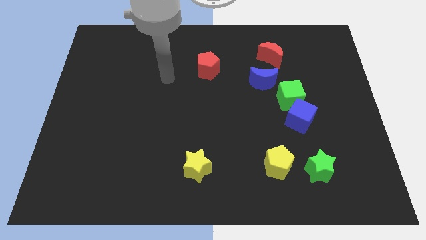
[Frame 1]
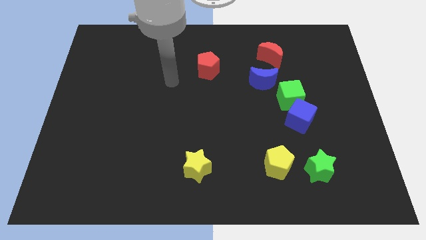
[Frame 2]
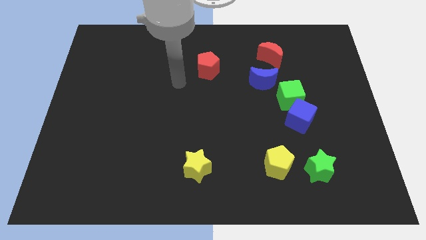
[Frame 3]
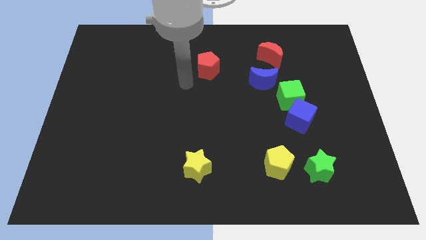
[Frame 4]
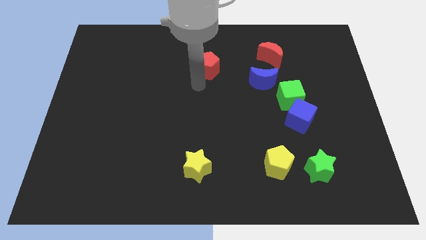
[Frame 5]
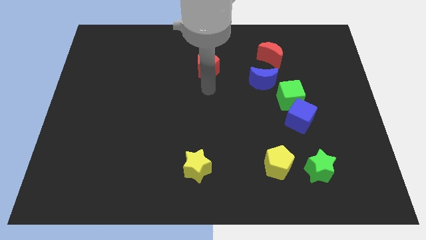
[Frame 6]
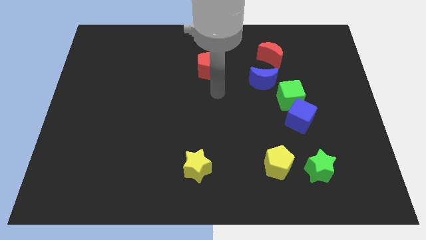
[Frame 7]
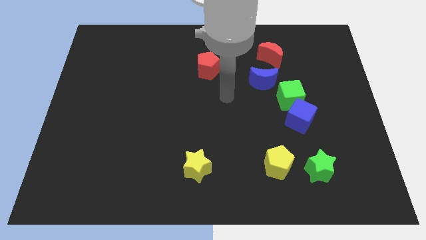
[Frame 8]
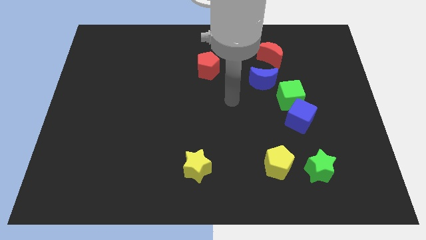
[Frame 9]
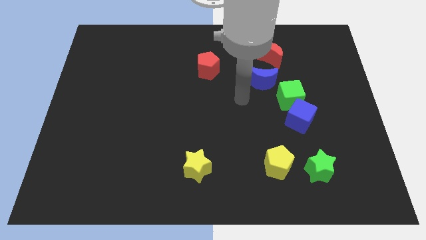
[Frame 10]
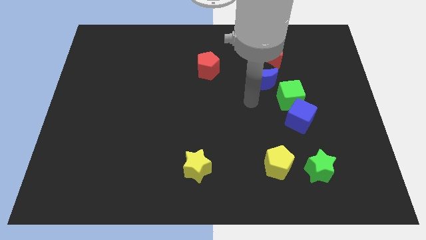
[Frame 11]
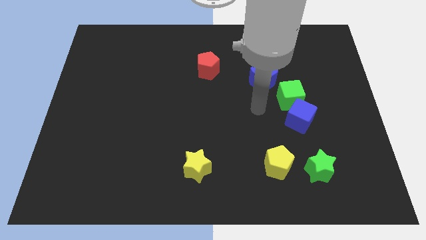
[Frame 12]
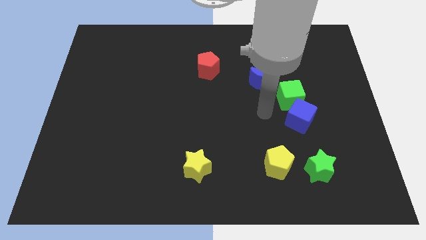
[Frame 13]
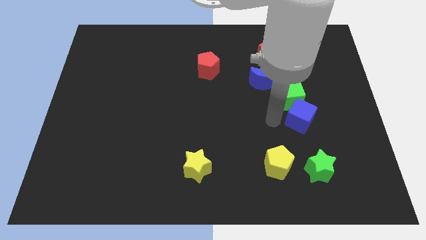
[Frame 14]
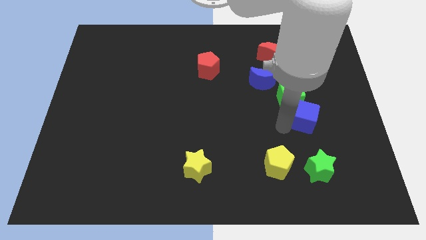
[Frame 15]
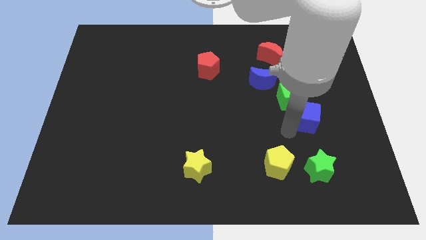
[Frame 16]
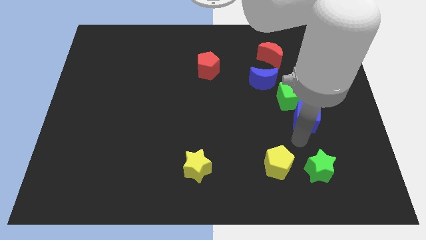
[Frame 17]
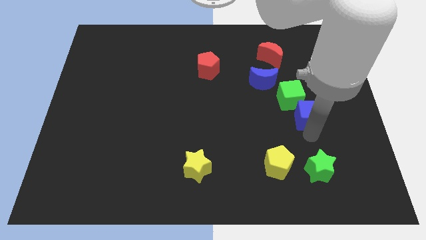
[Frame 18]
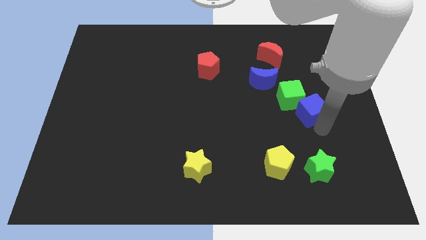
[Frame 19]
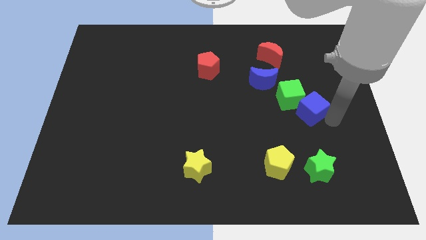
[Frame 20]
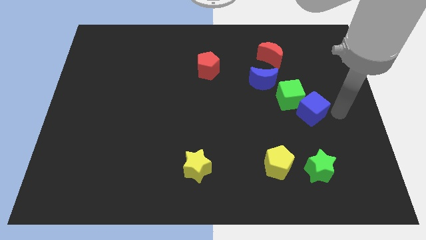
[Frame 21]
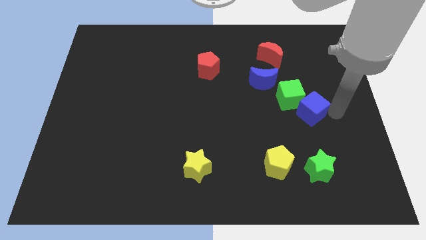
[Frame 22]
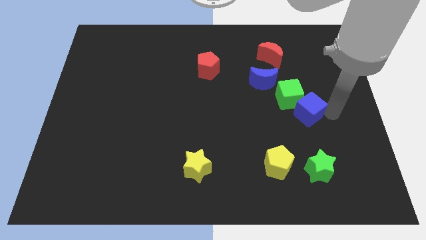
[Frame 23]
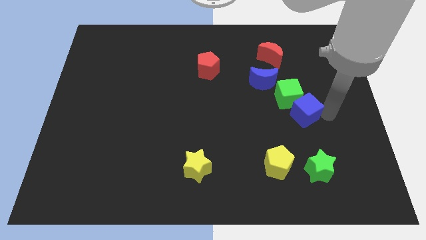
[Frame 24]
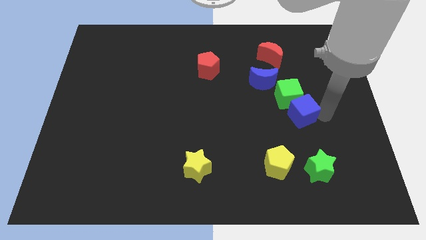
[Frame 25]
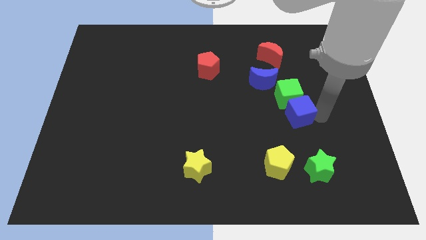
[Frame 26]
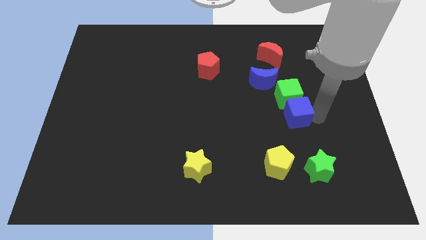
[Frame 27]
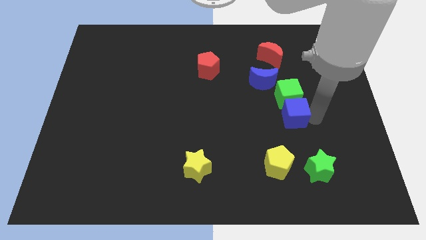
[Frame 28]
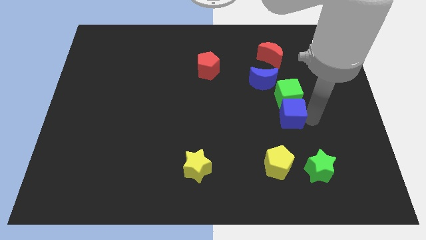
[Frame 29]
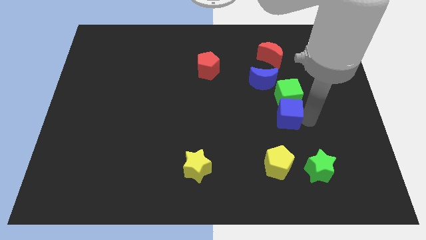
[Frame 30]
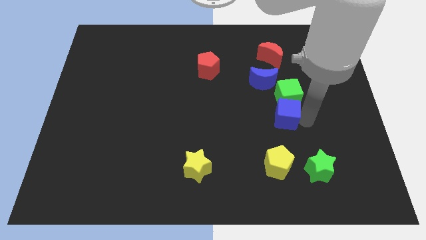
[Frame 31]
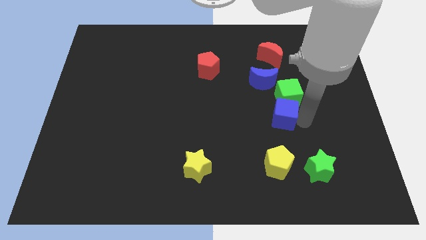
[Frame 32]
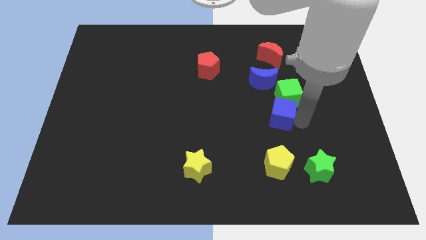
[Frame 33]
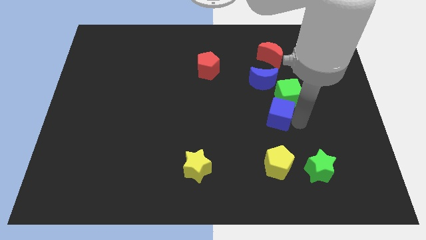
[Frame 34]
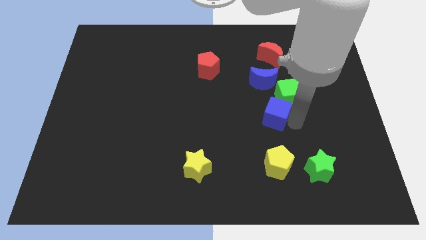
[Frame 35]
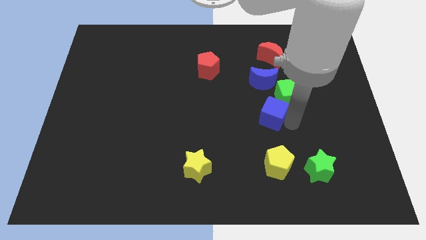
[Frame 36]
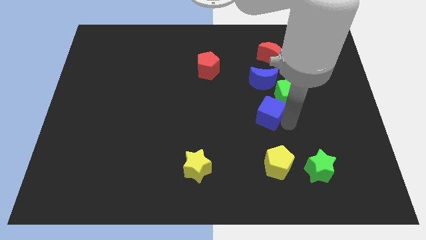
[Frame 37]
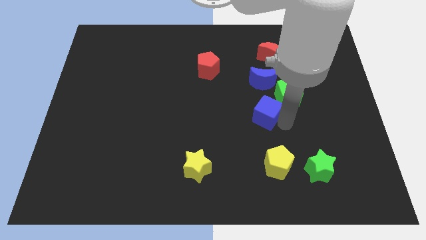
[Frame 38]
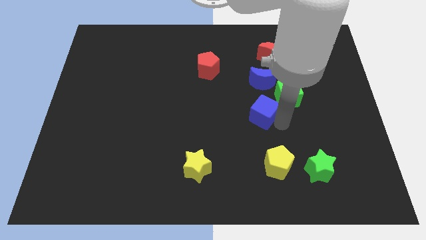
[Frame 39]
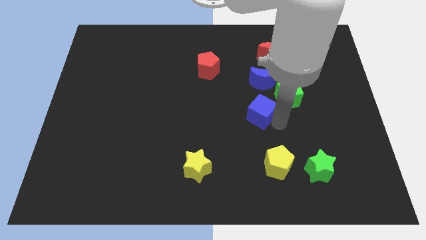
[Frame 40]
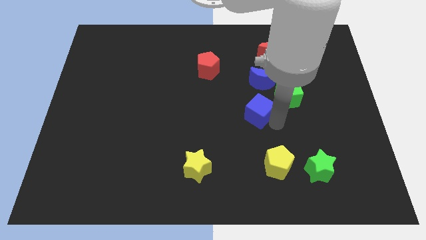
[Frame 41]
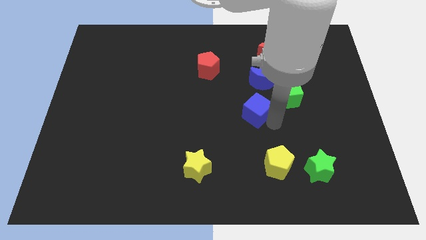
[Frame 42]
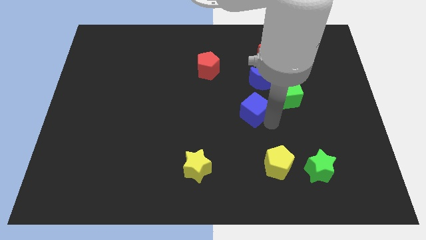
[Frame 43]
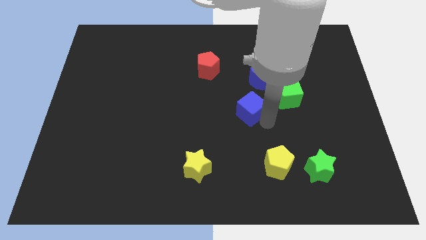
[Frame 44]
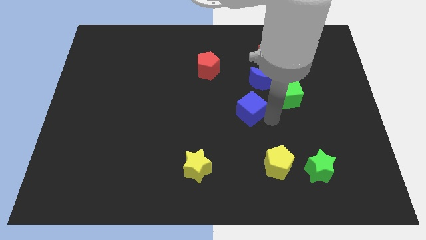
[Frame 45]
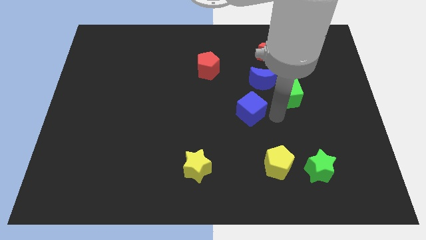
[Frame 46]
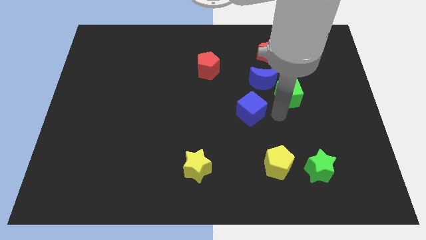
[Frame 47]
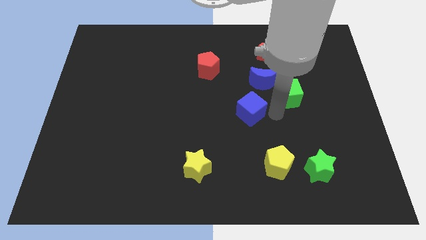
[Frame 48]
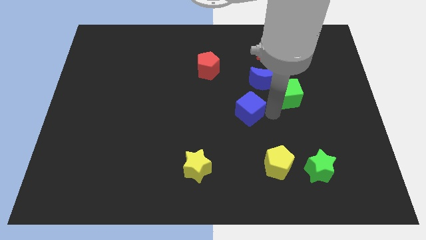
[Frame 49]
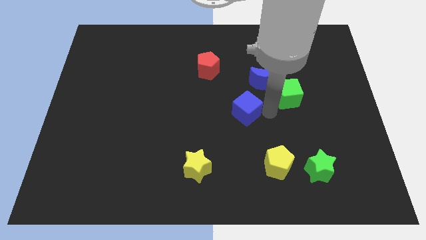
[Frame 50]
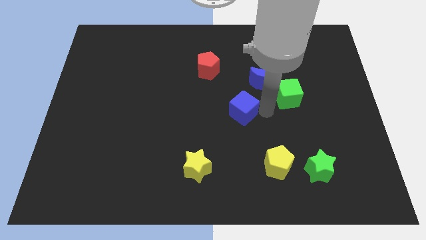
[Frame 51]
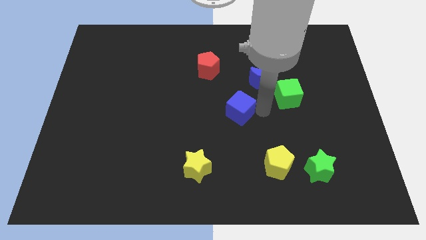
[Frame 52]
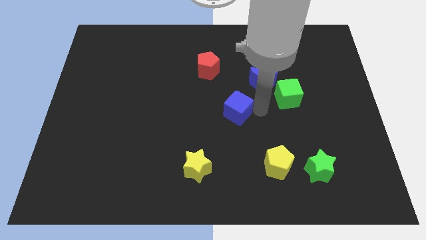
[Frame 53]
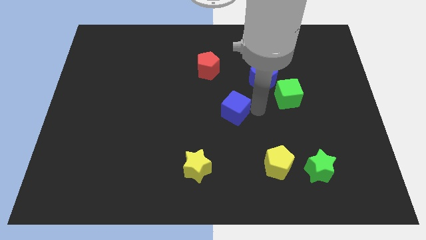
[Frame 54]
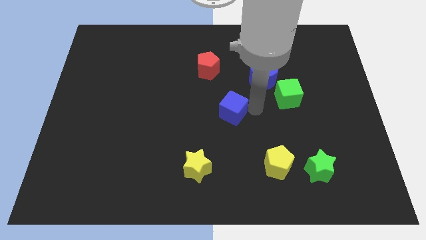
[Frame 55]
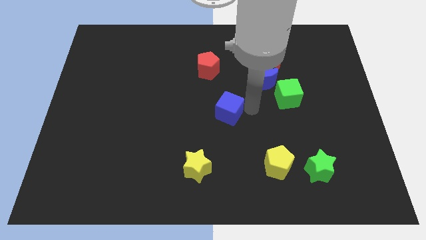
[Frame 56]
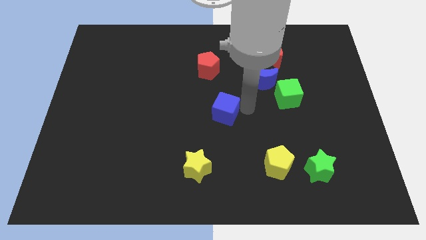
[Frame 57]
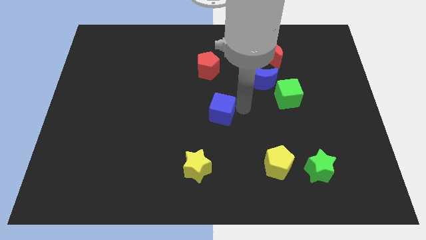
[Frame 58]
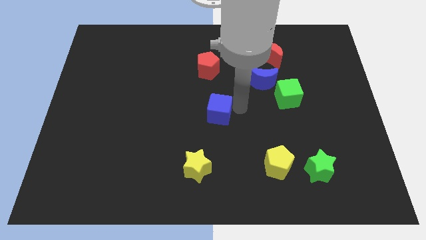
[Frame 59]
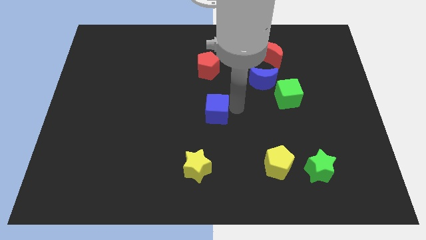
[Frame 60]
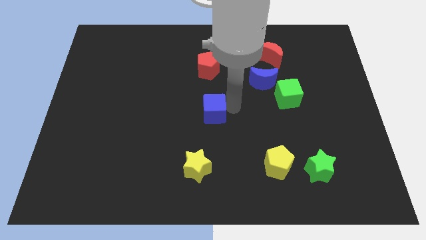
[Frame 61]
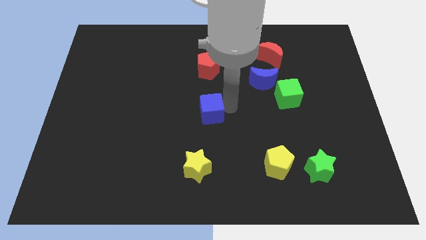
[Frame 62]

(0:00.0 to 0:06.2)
push the blue cube left

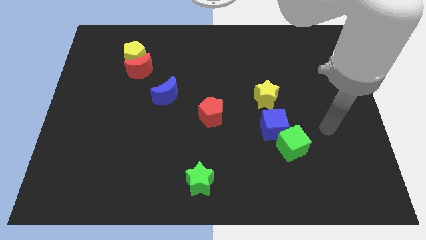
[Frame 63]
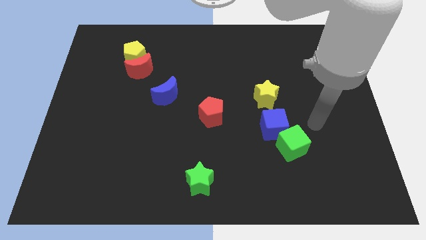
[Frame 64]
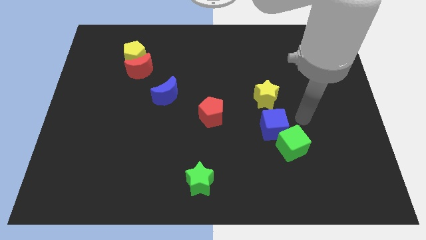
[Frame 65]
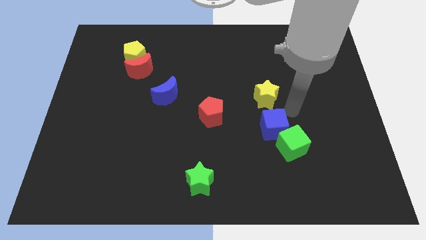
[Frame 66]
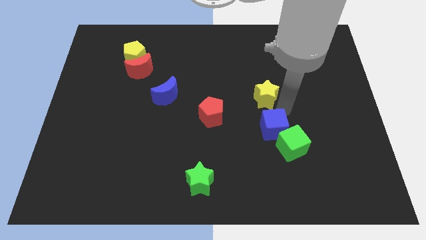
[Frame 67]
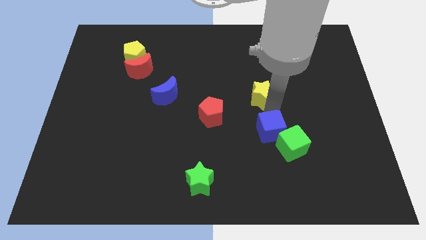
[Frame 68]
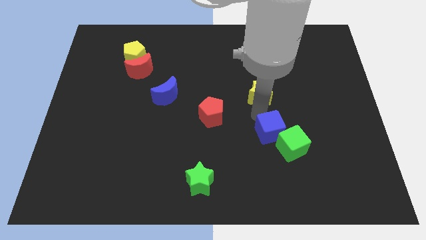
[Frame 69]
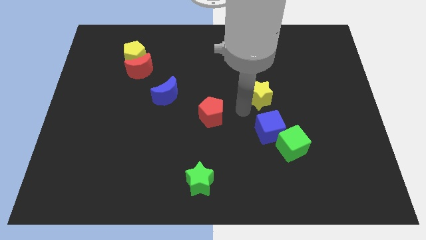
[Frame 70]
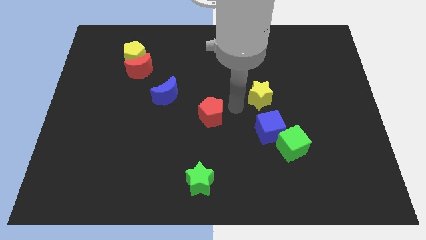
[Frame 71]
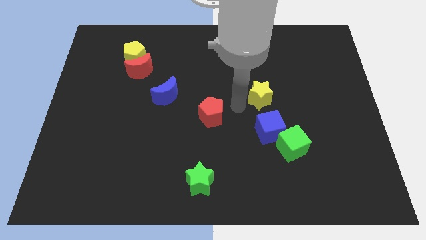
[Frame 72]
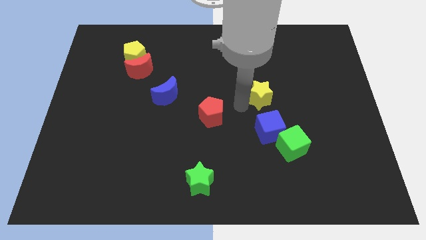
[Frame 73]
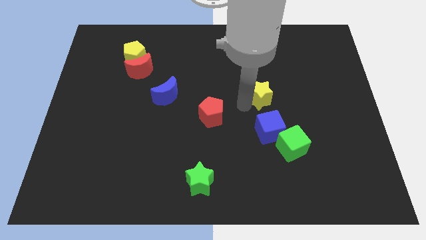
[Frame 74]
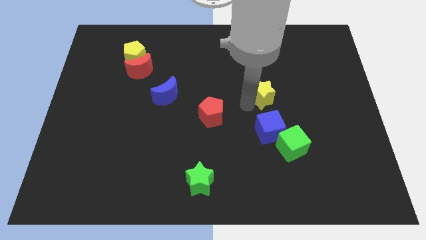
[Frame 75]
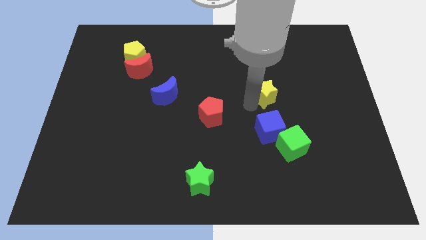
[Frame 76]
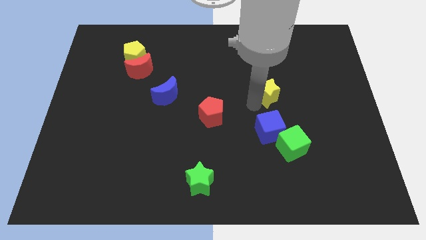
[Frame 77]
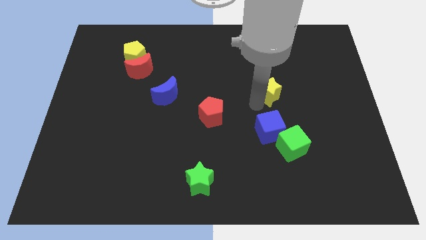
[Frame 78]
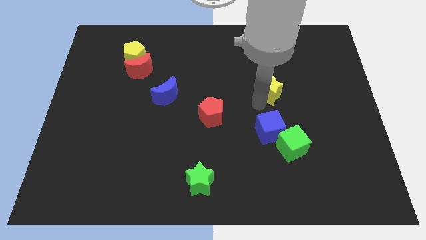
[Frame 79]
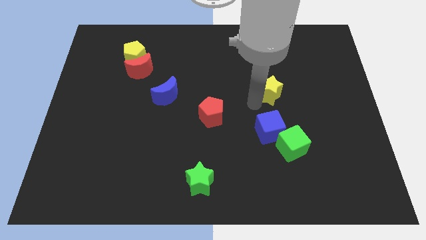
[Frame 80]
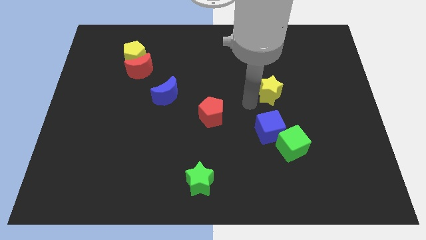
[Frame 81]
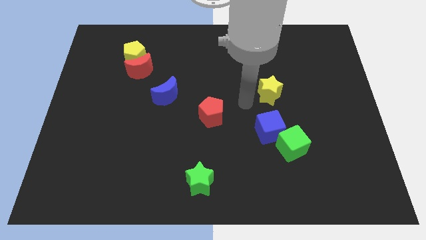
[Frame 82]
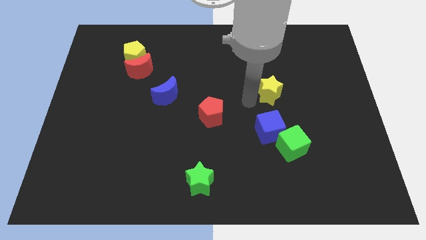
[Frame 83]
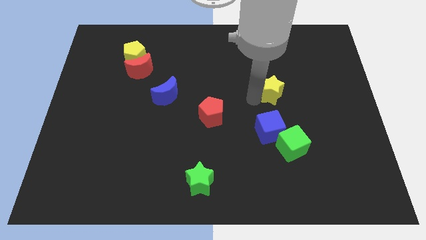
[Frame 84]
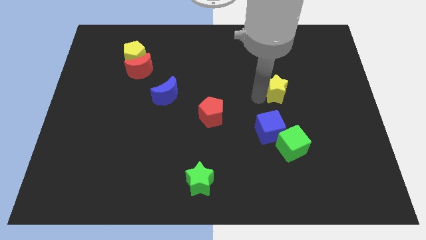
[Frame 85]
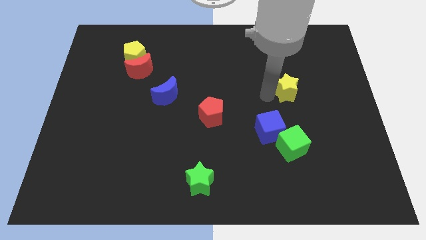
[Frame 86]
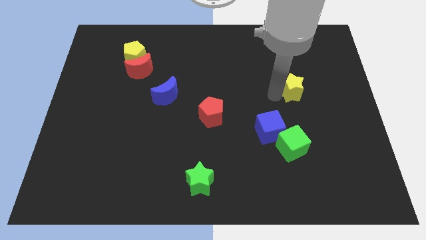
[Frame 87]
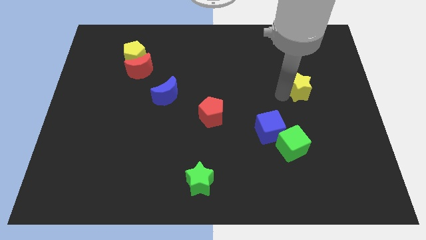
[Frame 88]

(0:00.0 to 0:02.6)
slightly move the yellow star up and to the right
